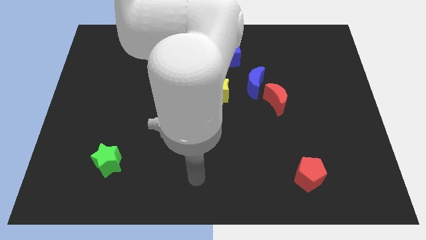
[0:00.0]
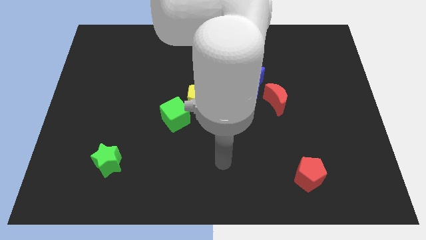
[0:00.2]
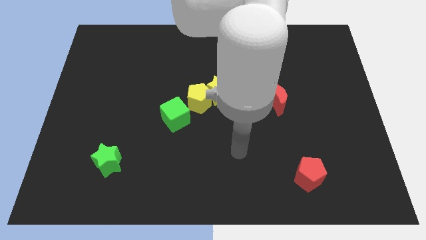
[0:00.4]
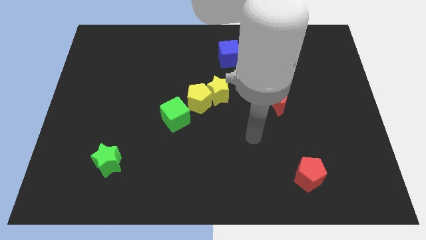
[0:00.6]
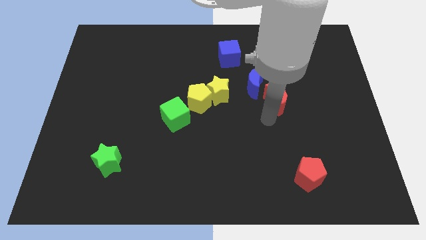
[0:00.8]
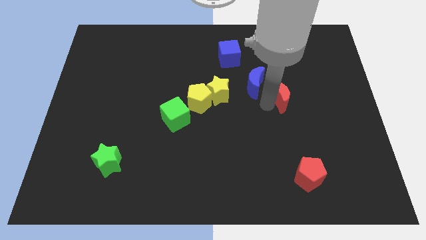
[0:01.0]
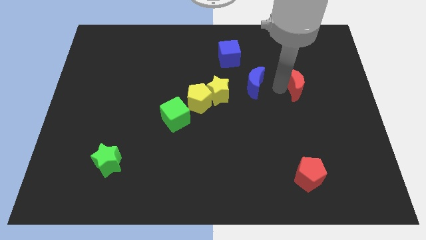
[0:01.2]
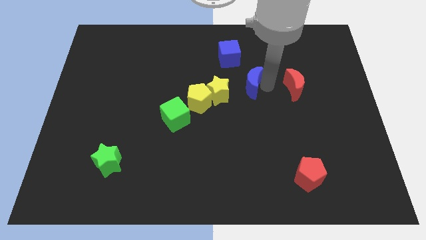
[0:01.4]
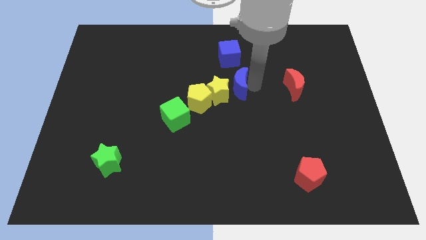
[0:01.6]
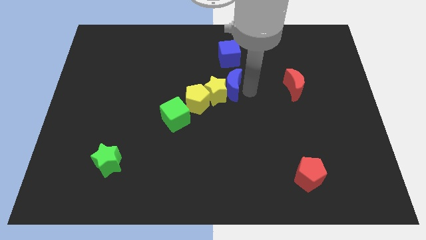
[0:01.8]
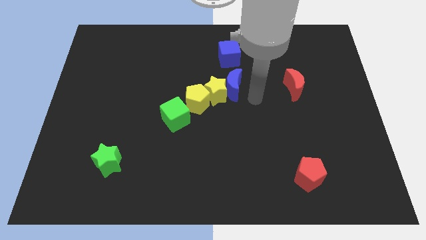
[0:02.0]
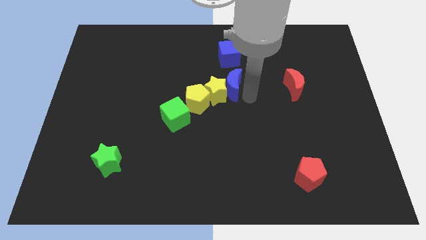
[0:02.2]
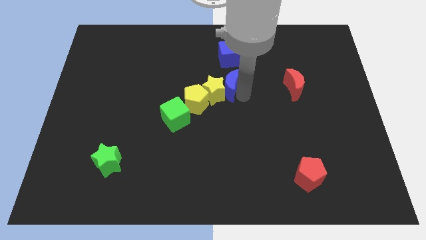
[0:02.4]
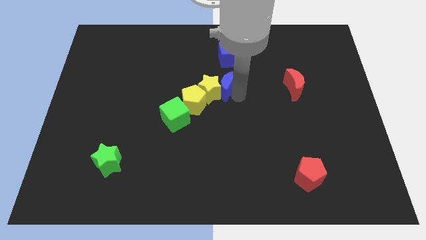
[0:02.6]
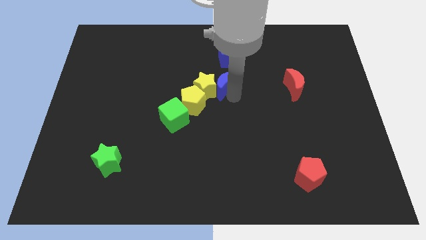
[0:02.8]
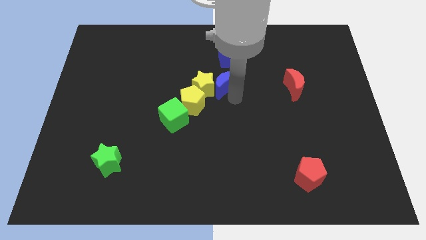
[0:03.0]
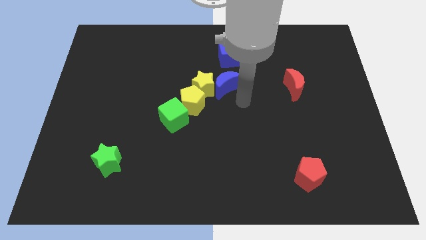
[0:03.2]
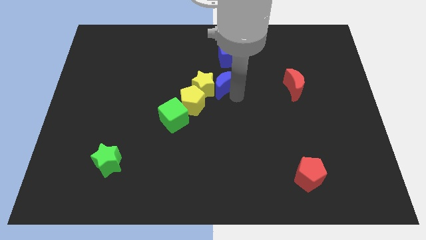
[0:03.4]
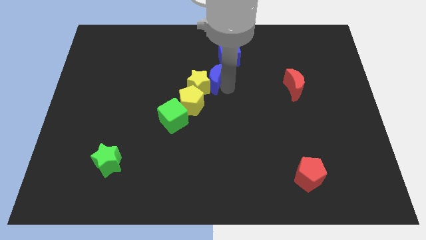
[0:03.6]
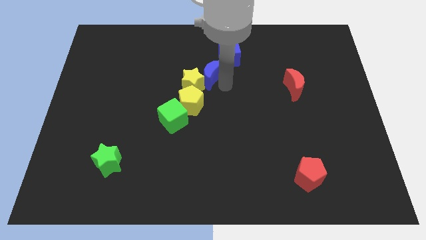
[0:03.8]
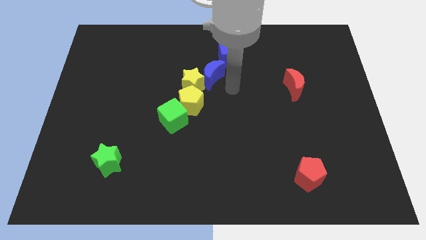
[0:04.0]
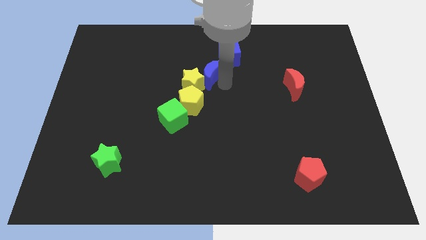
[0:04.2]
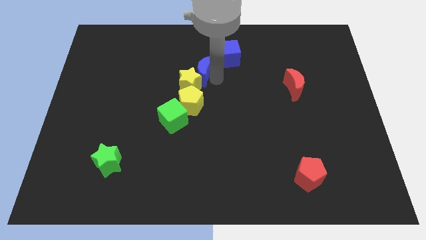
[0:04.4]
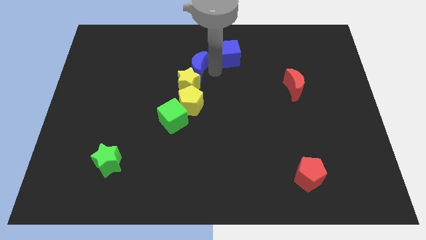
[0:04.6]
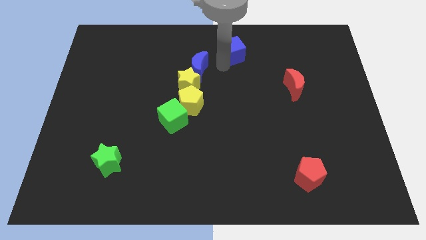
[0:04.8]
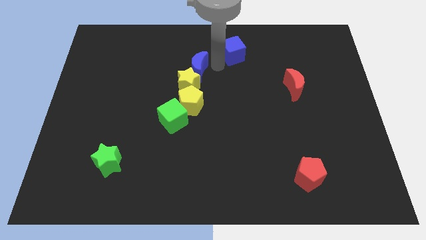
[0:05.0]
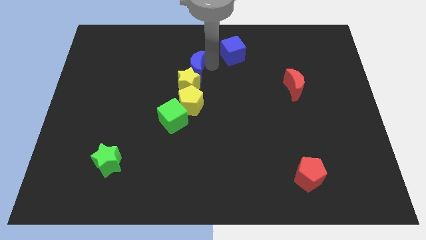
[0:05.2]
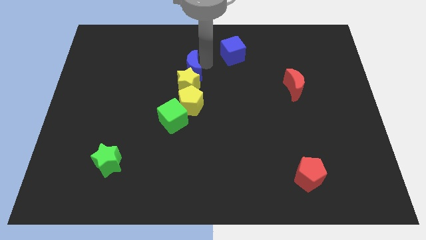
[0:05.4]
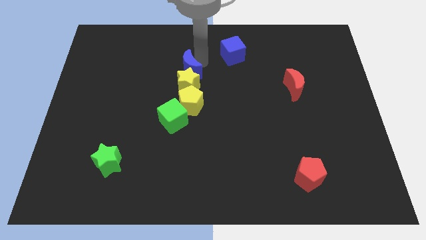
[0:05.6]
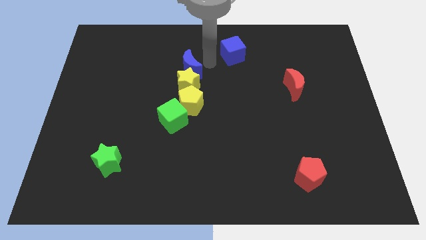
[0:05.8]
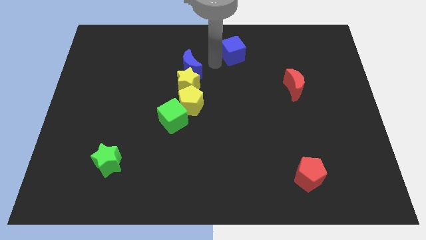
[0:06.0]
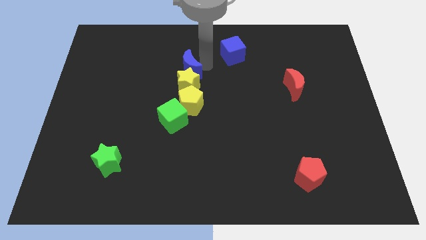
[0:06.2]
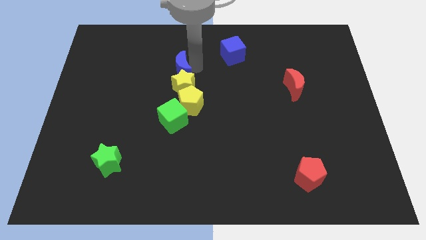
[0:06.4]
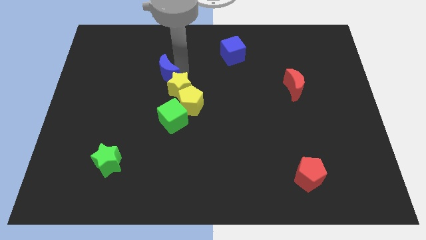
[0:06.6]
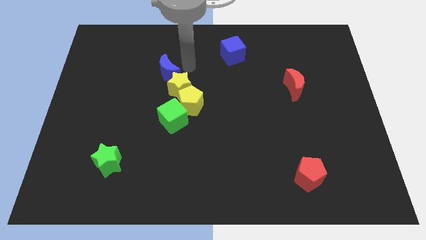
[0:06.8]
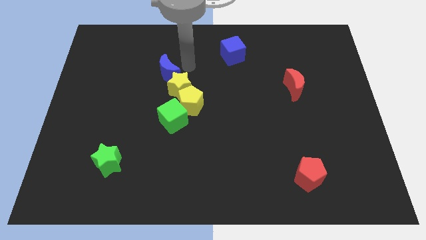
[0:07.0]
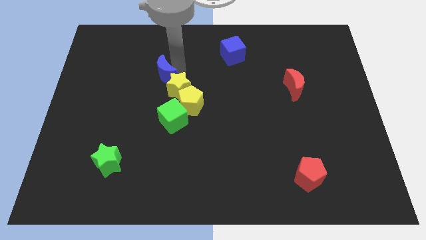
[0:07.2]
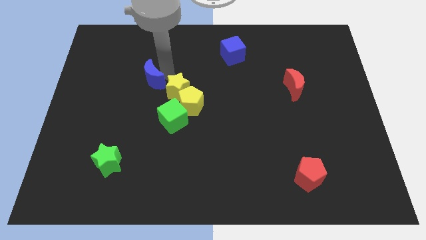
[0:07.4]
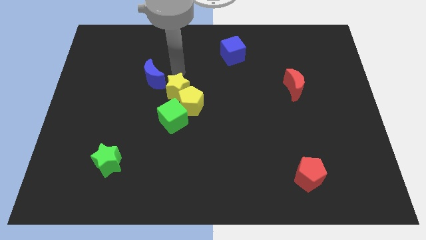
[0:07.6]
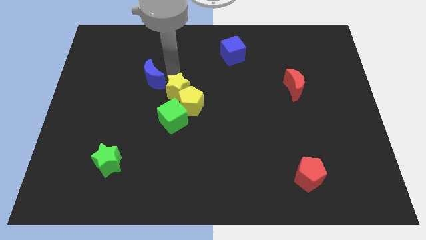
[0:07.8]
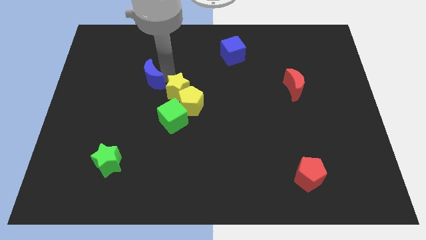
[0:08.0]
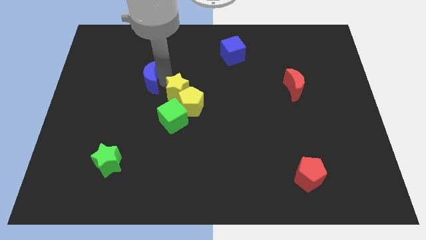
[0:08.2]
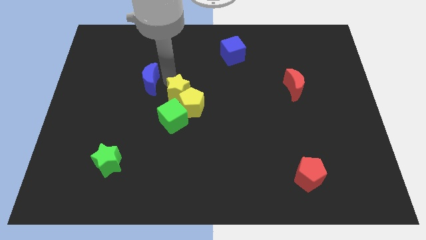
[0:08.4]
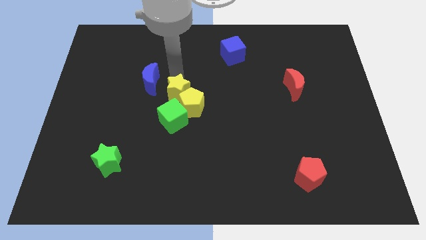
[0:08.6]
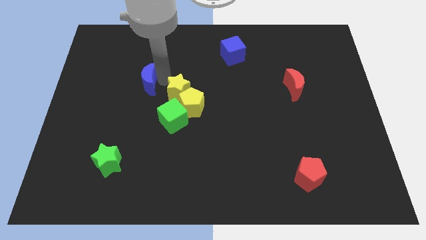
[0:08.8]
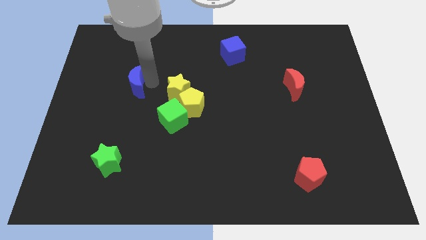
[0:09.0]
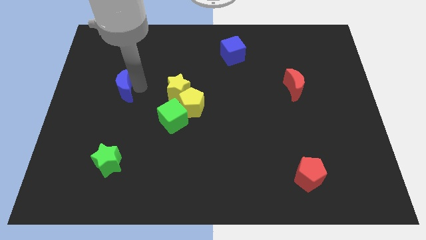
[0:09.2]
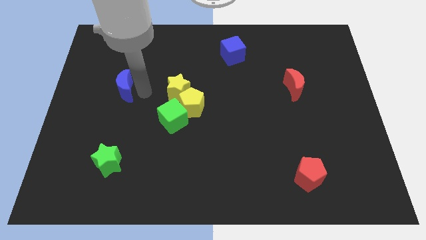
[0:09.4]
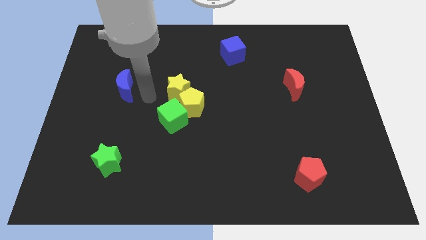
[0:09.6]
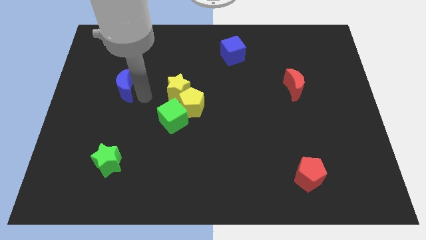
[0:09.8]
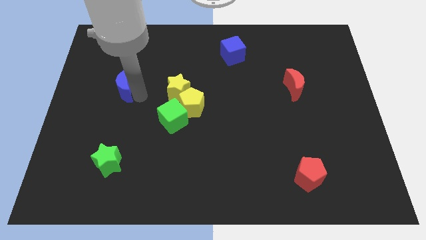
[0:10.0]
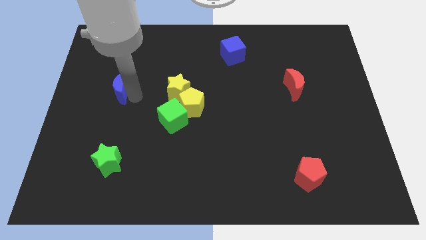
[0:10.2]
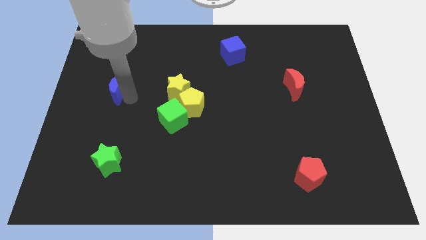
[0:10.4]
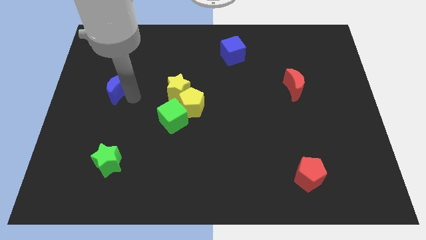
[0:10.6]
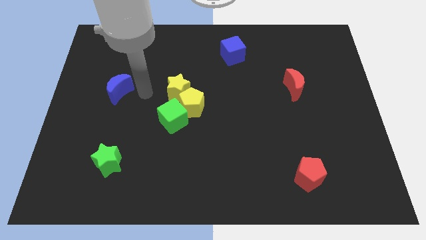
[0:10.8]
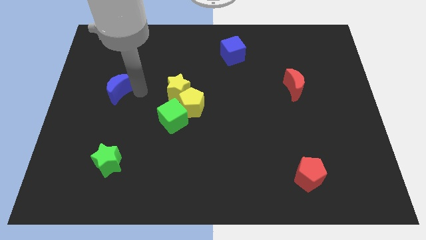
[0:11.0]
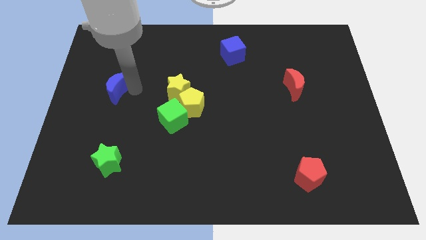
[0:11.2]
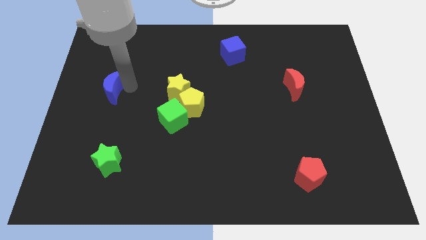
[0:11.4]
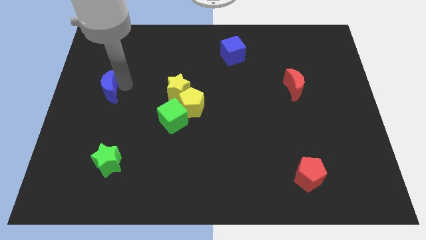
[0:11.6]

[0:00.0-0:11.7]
slide the blue moon to the left side

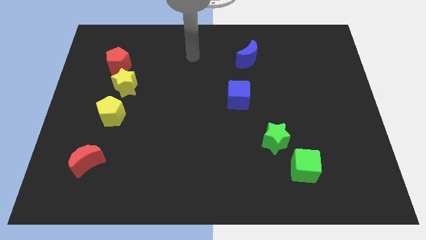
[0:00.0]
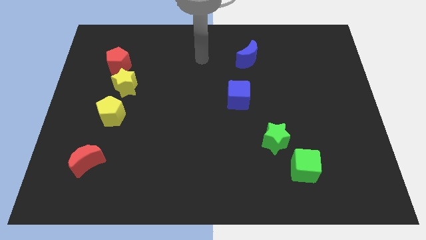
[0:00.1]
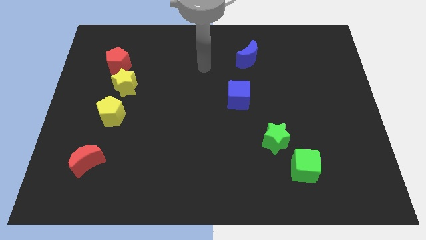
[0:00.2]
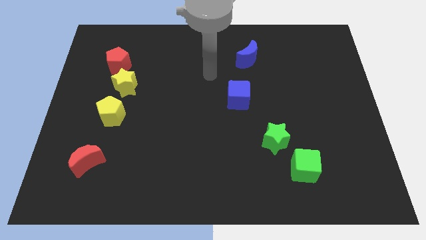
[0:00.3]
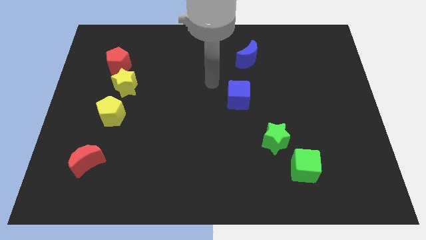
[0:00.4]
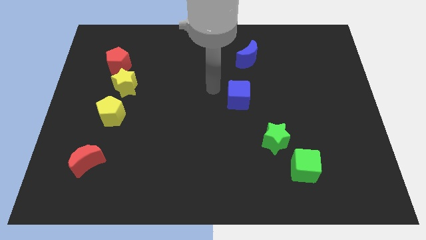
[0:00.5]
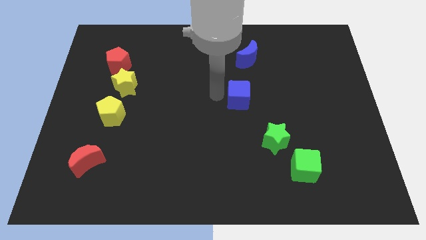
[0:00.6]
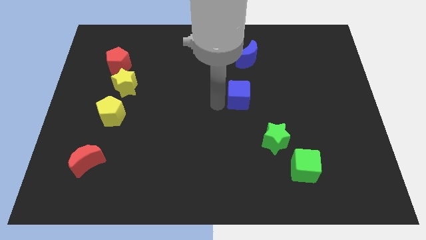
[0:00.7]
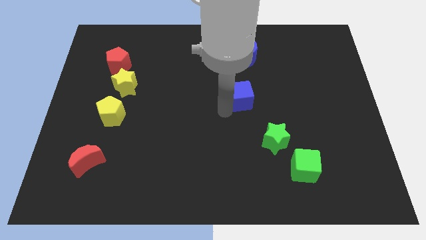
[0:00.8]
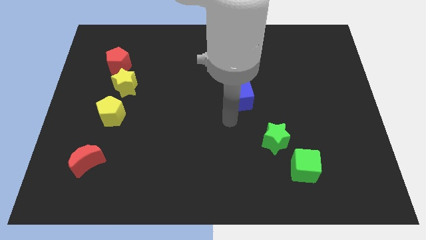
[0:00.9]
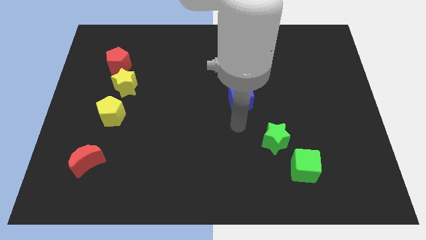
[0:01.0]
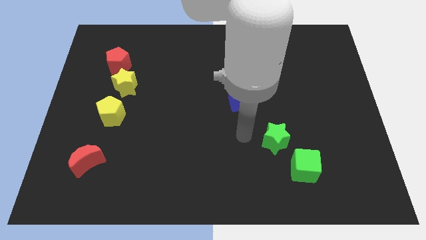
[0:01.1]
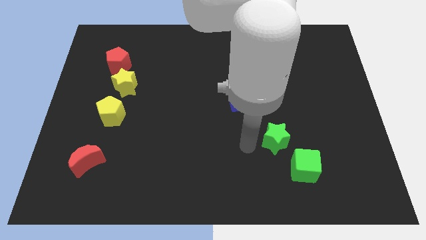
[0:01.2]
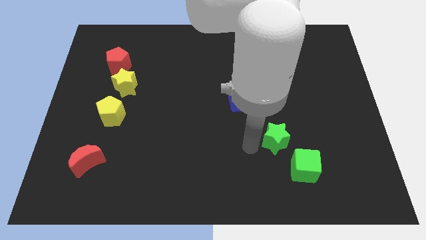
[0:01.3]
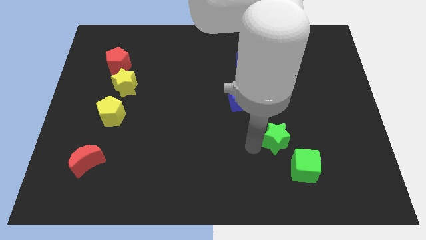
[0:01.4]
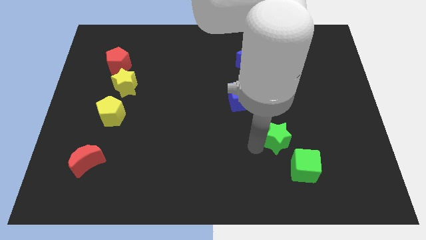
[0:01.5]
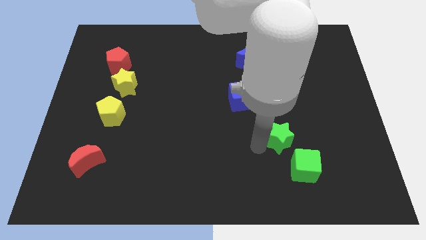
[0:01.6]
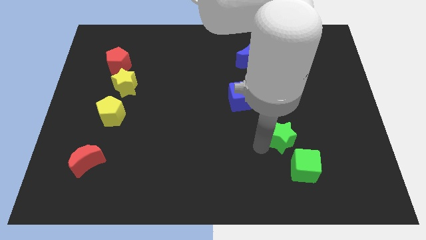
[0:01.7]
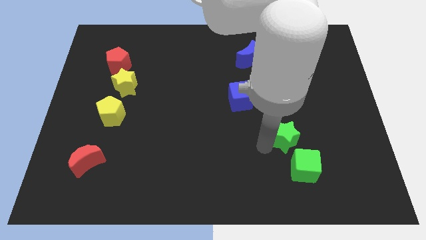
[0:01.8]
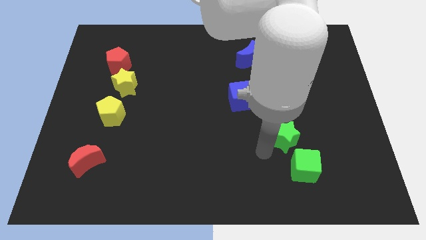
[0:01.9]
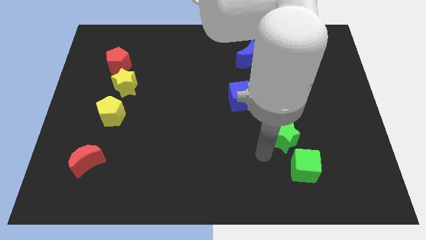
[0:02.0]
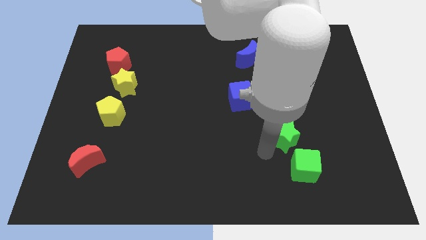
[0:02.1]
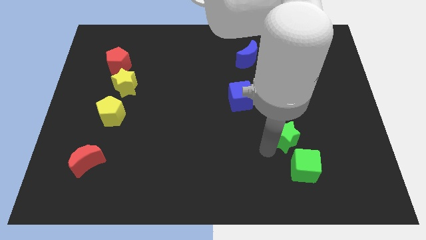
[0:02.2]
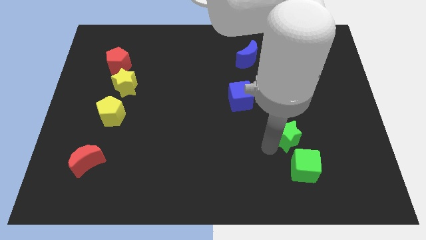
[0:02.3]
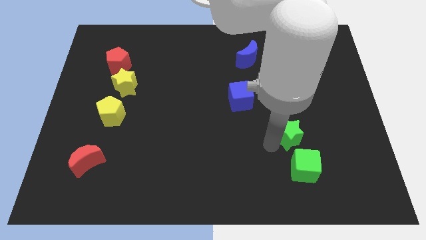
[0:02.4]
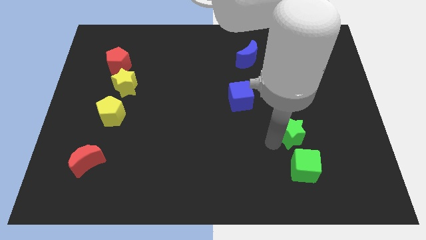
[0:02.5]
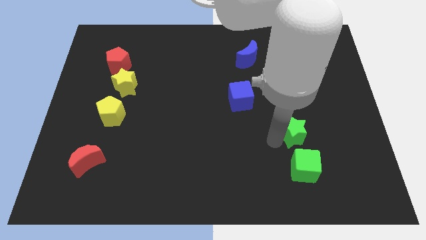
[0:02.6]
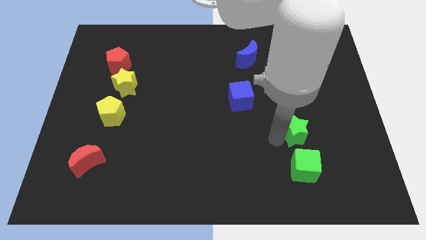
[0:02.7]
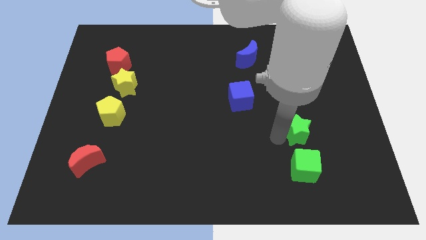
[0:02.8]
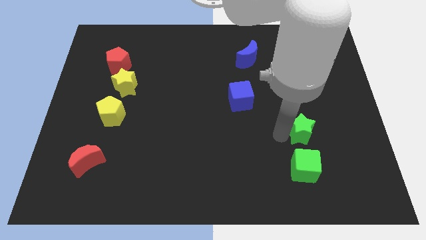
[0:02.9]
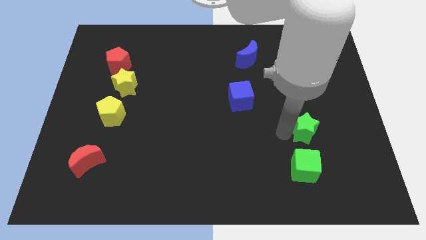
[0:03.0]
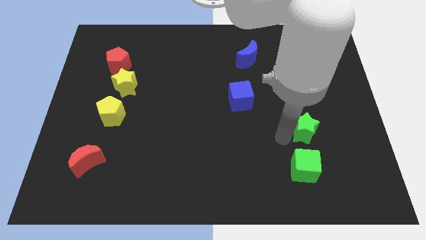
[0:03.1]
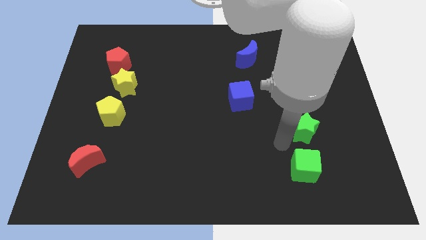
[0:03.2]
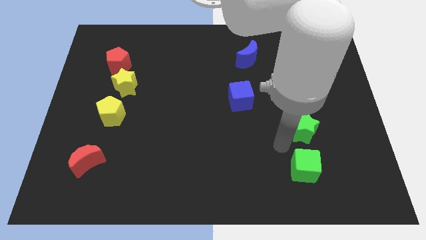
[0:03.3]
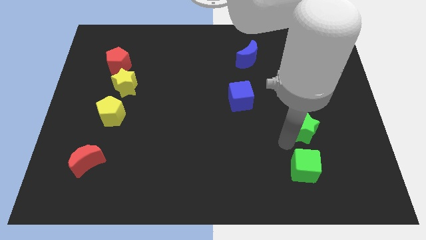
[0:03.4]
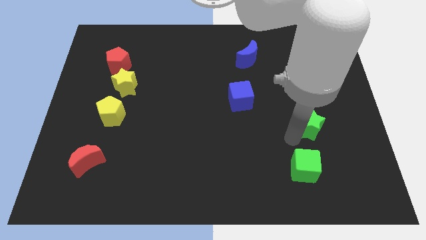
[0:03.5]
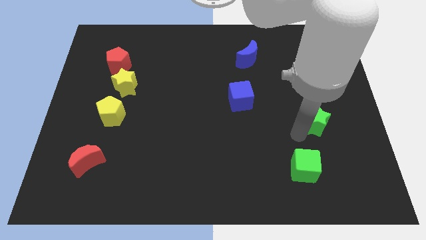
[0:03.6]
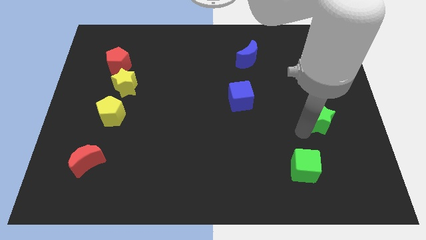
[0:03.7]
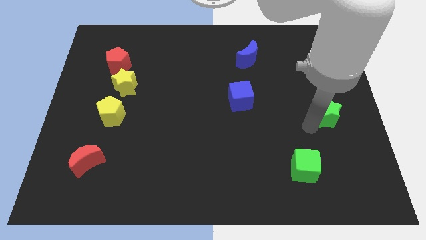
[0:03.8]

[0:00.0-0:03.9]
slide the green star to the right side
